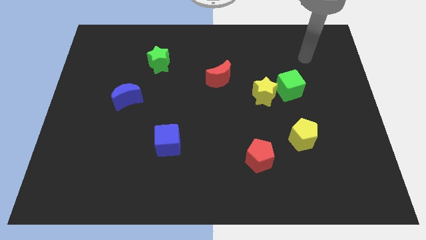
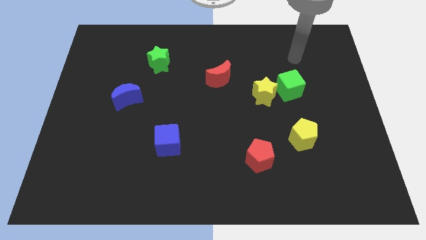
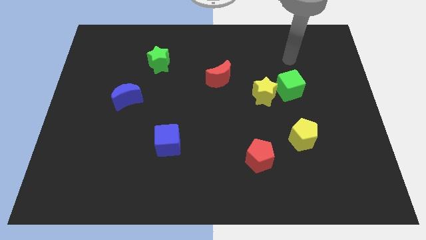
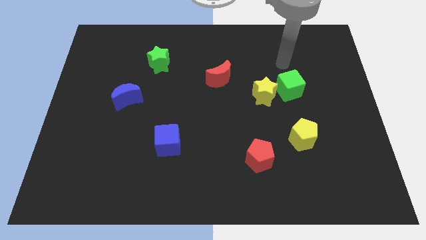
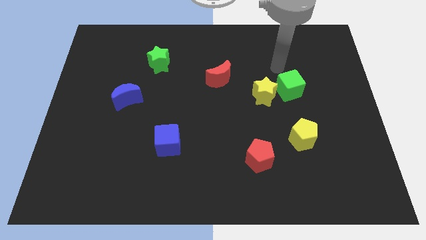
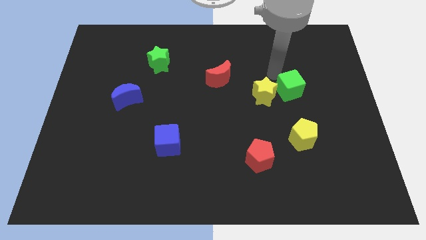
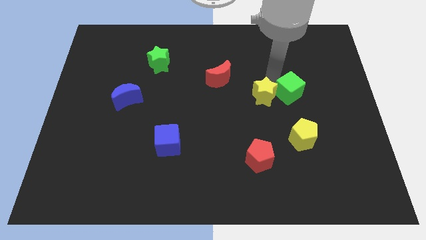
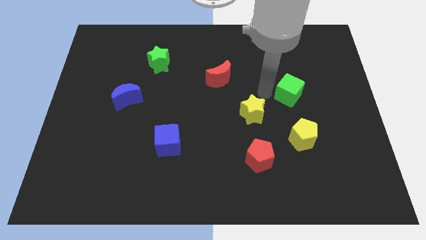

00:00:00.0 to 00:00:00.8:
move the green cube away from the yellow star

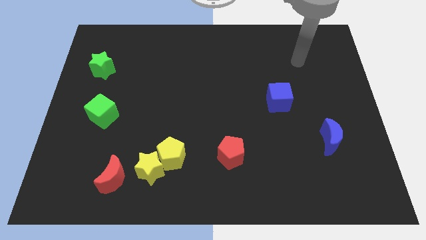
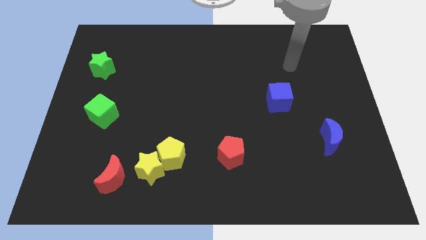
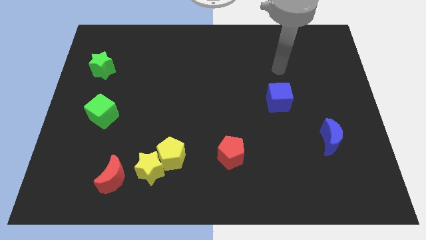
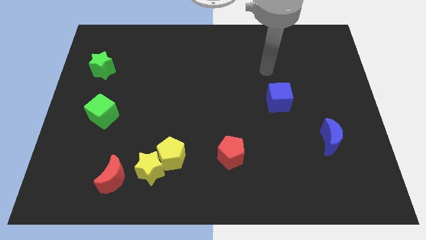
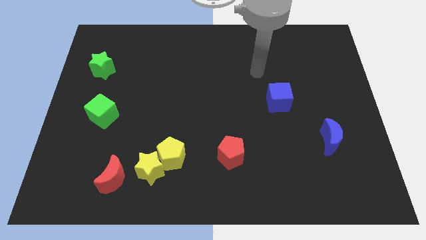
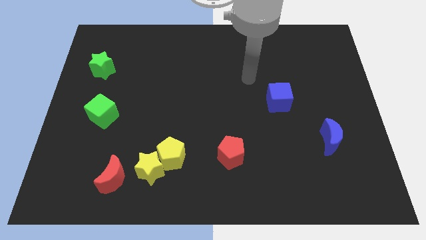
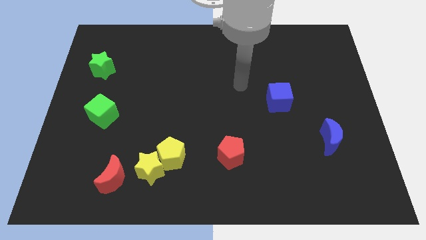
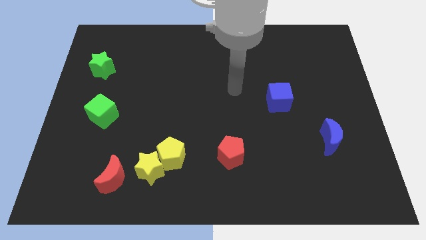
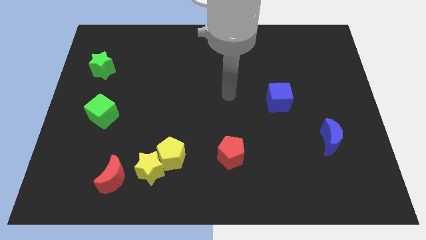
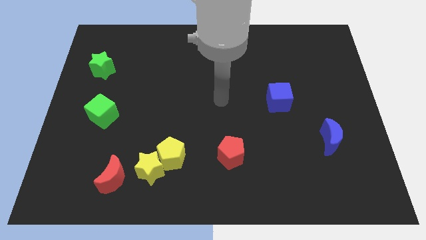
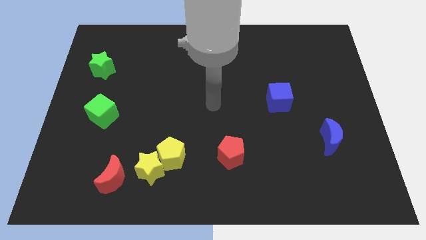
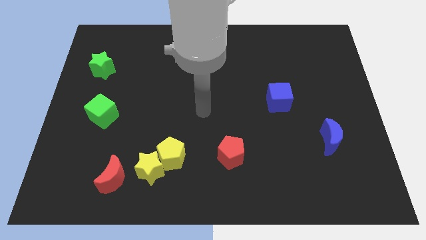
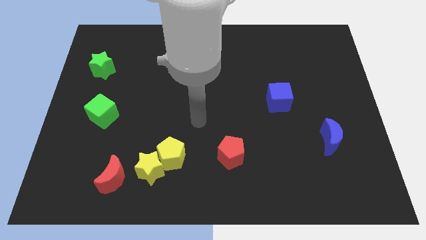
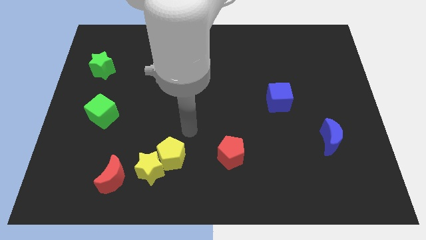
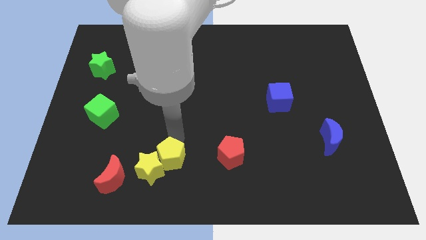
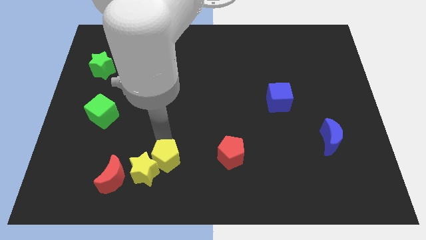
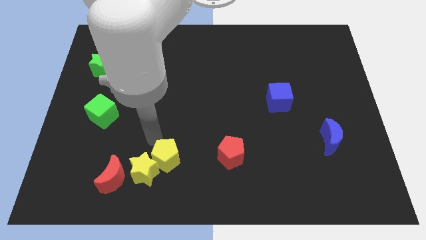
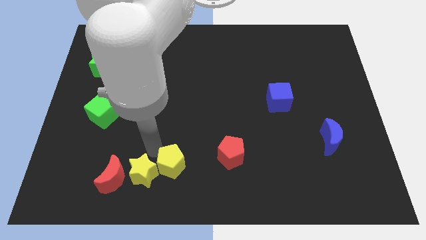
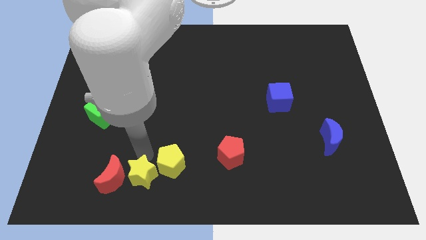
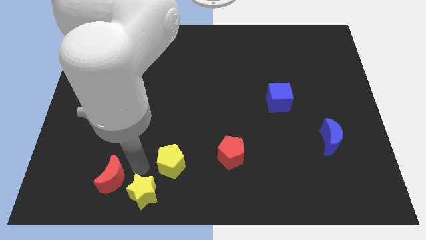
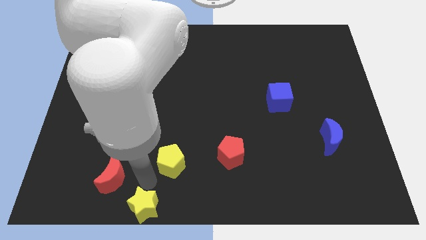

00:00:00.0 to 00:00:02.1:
separate the yellow pentagon from the yellow star

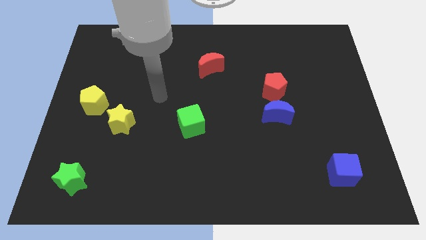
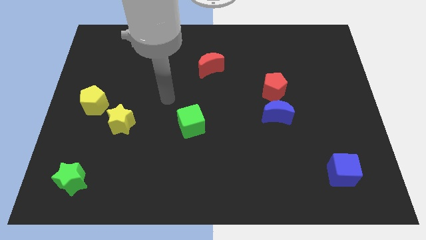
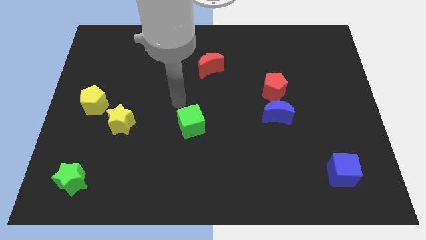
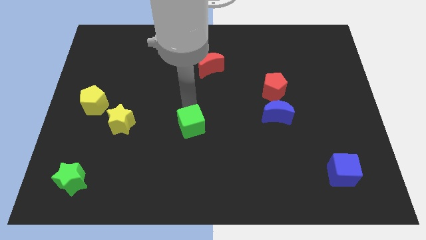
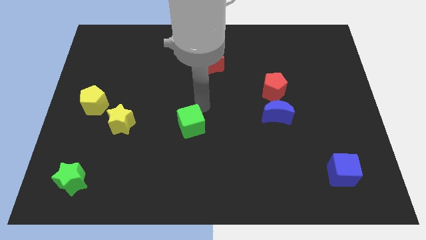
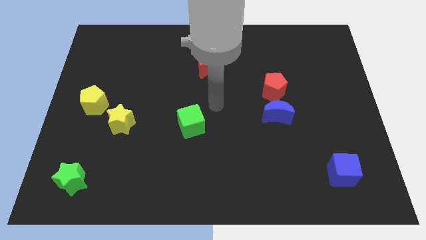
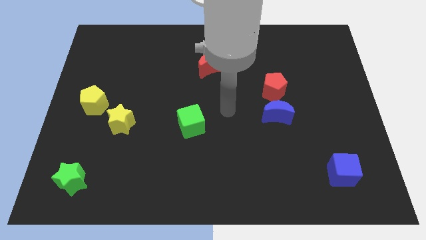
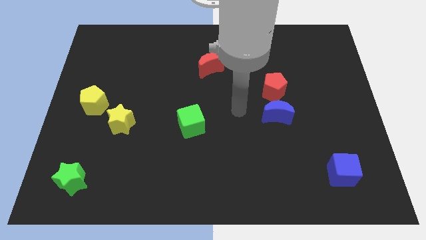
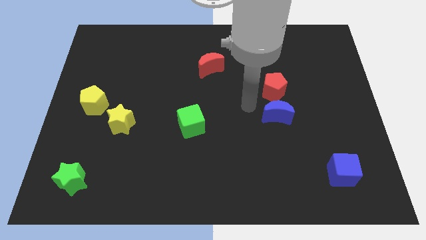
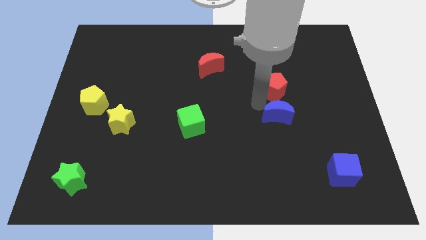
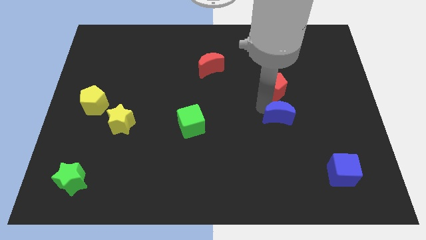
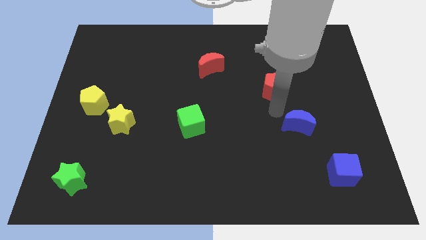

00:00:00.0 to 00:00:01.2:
pull the red pentagon apart from the blue moon

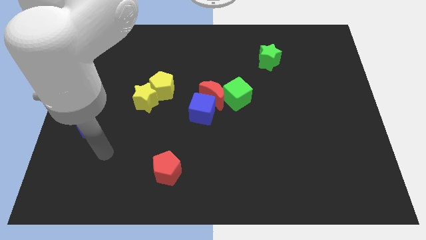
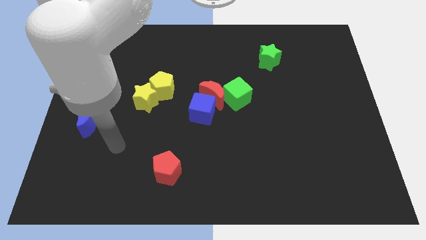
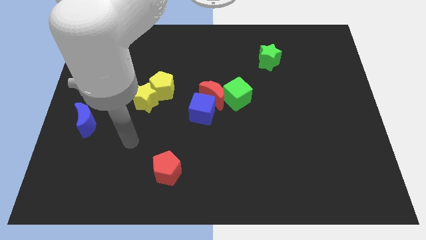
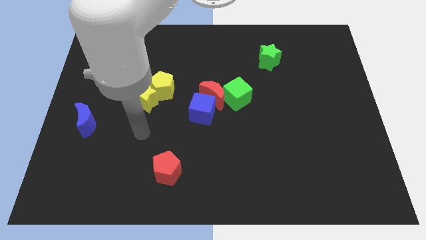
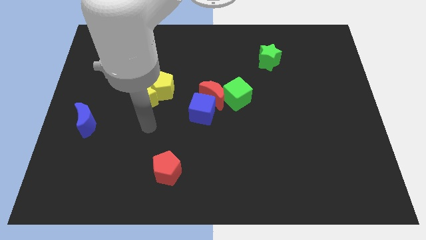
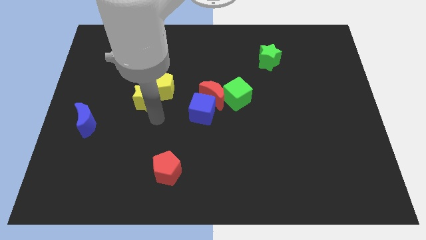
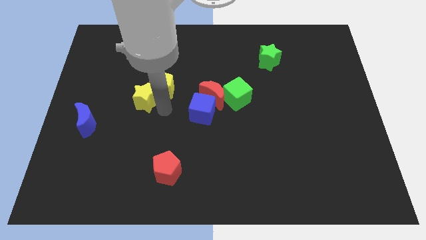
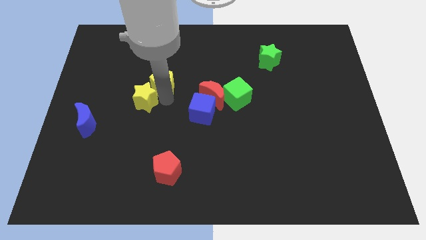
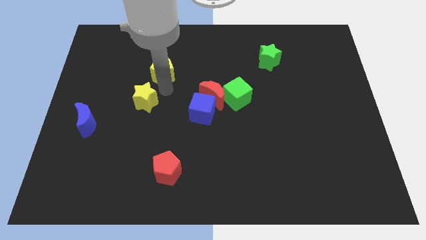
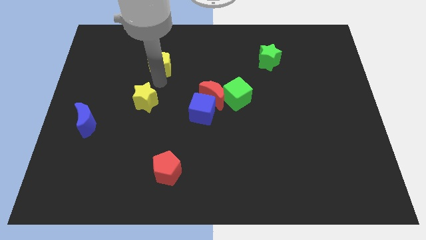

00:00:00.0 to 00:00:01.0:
pull the yellow star apart from the yellow pentagon

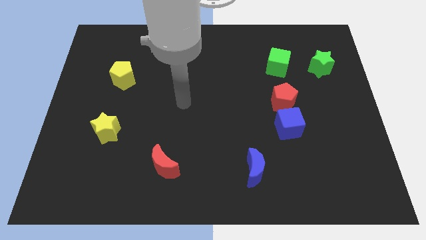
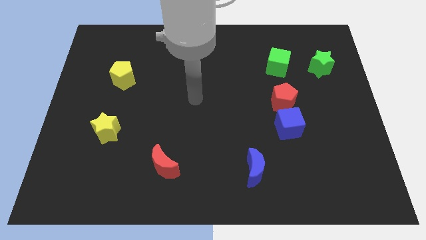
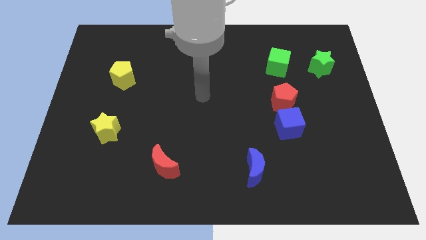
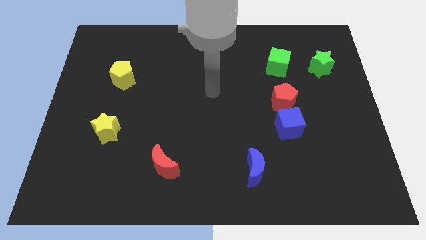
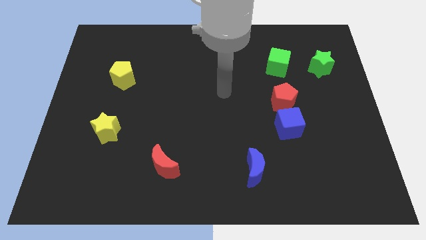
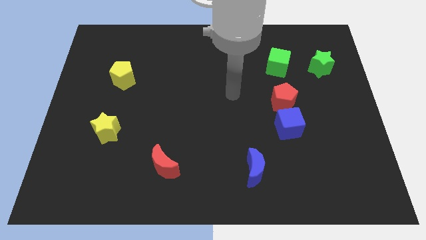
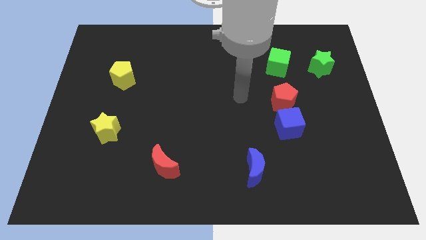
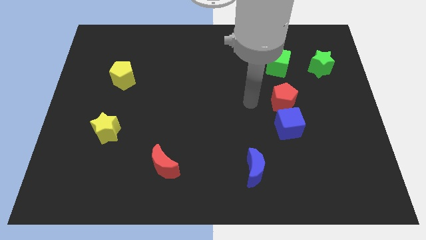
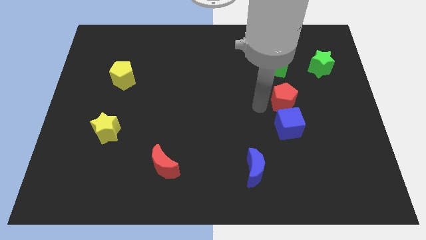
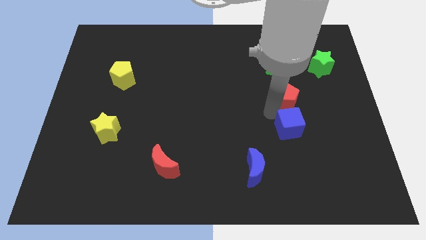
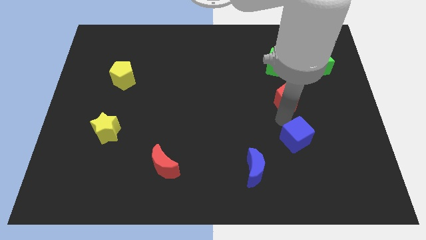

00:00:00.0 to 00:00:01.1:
pull the red pentagon apart from the blue cube

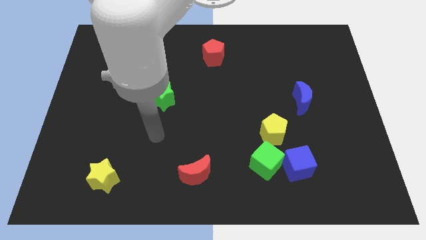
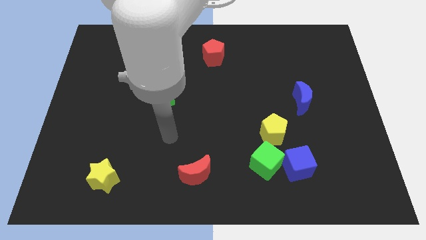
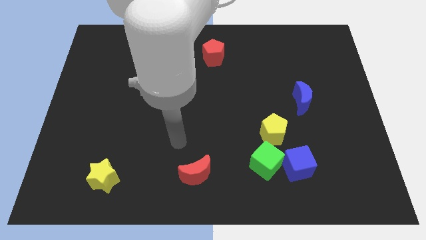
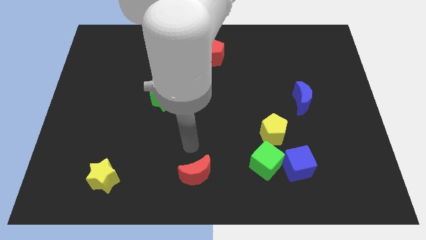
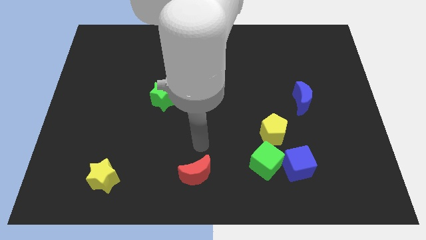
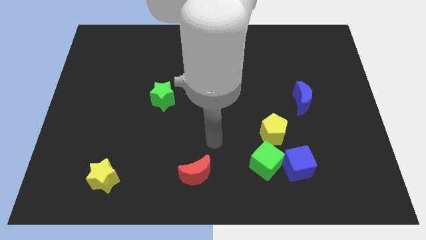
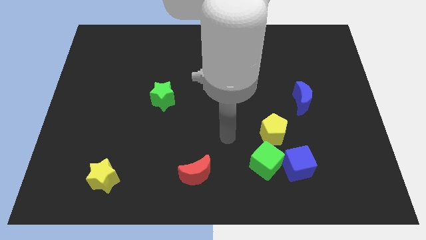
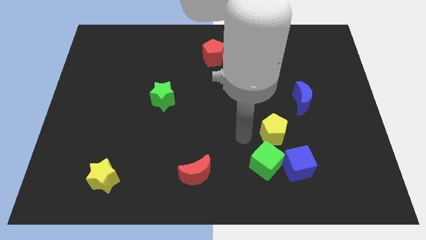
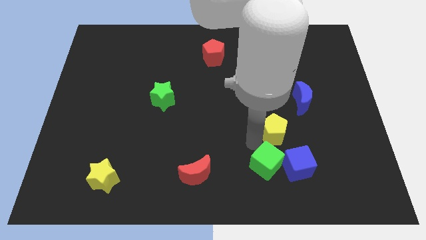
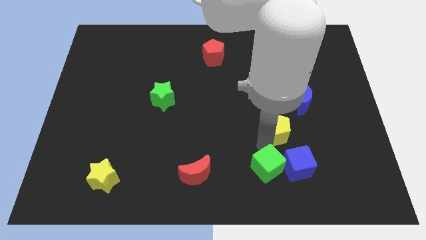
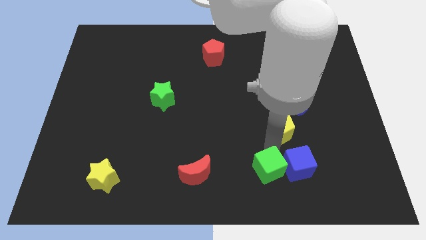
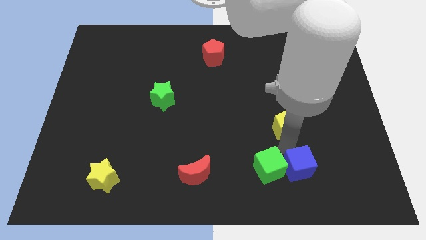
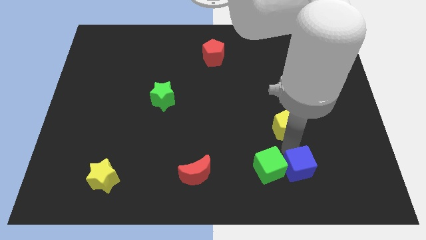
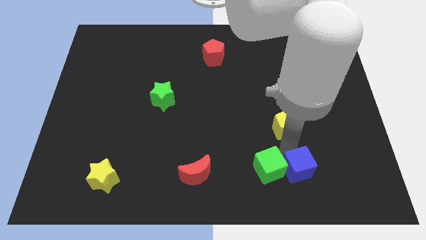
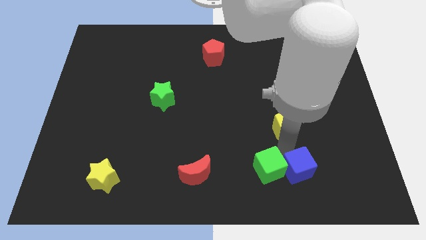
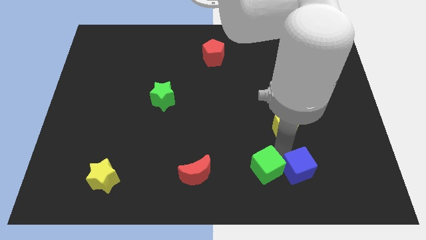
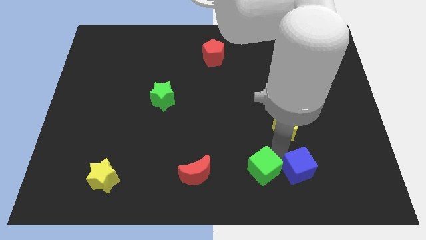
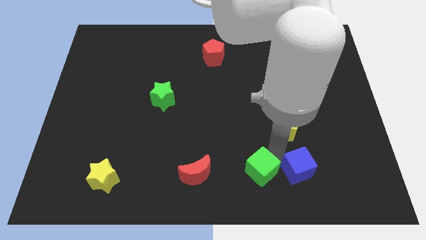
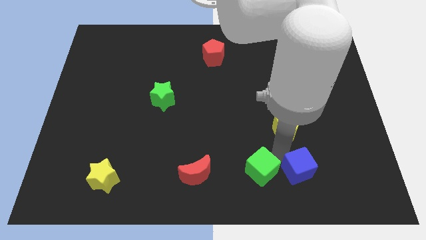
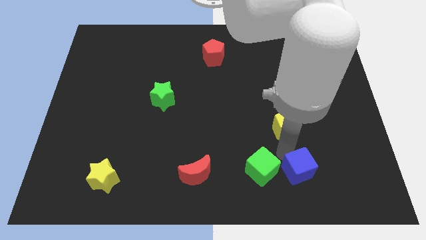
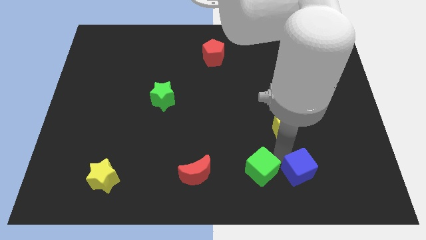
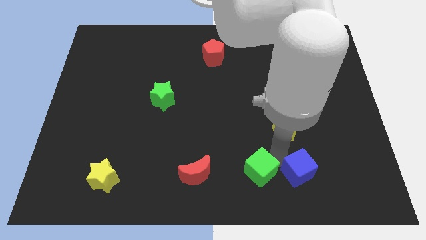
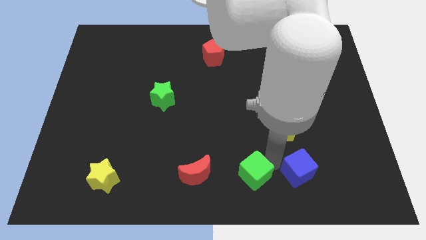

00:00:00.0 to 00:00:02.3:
separate the green cube from the blue cube and yellow pentagon

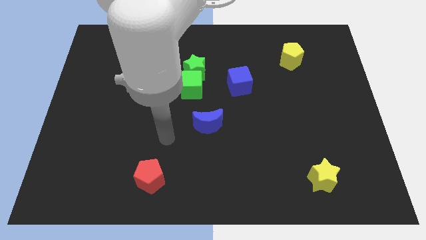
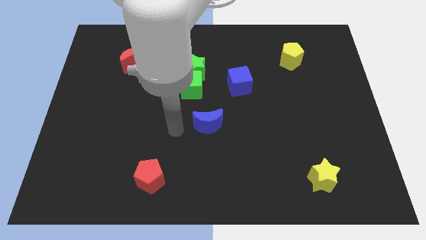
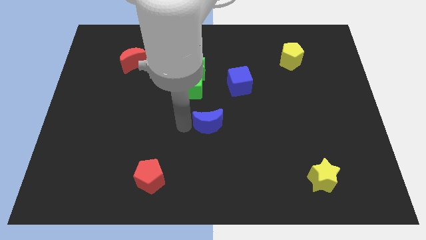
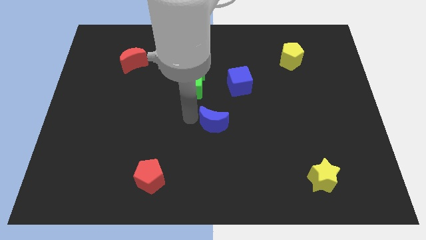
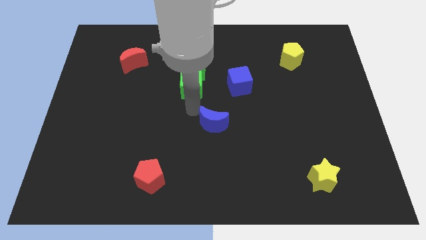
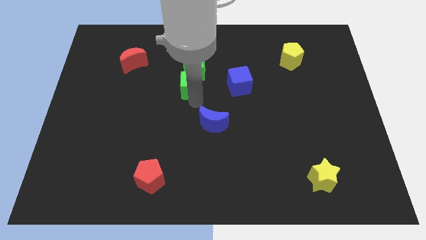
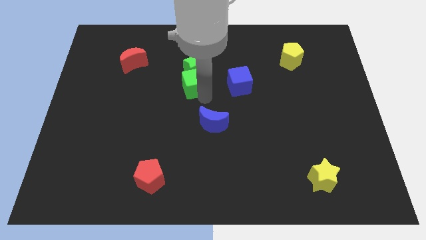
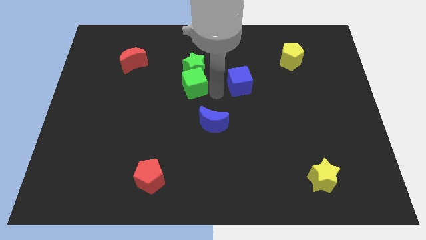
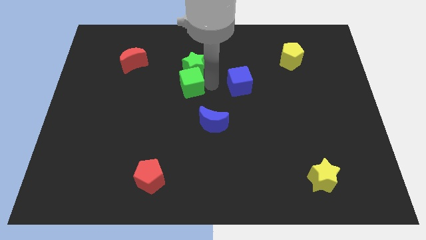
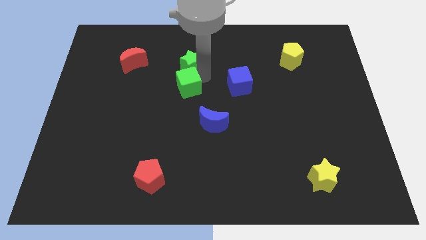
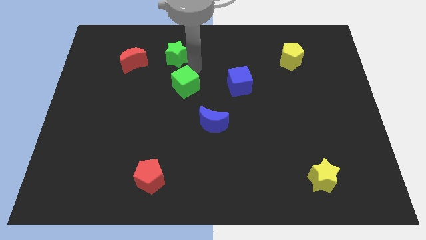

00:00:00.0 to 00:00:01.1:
separate the green cube from the green star
